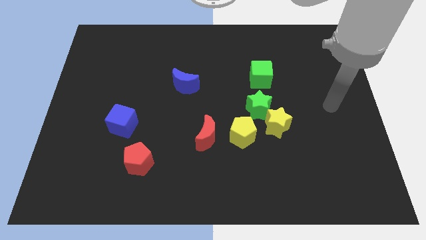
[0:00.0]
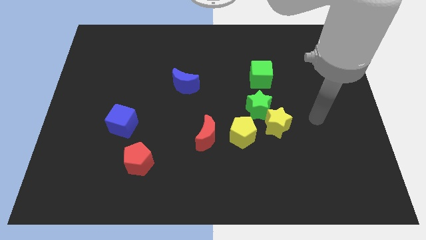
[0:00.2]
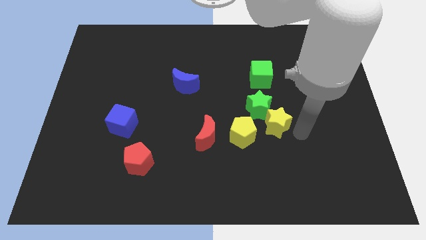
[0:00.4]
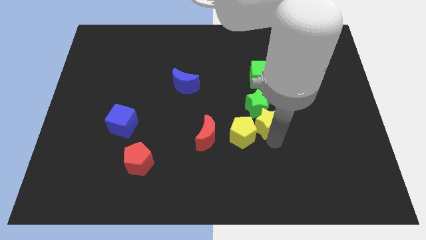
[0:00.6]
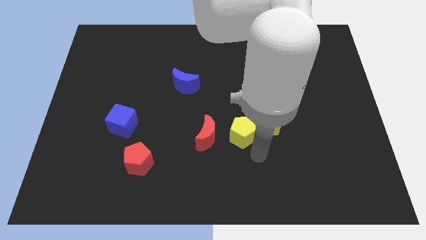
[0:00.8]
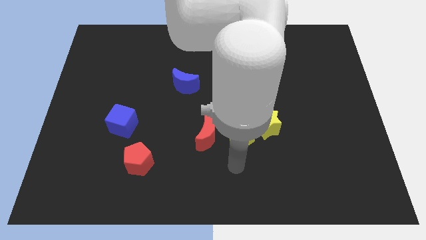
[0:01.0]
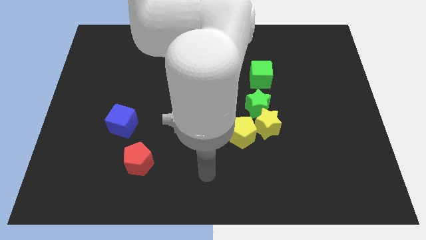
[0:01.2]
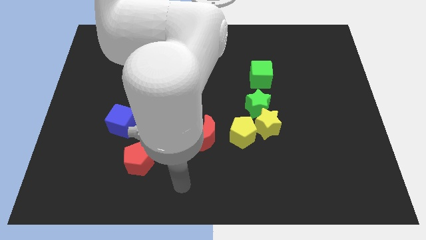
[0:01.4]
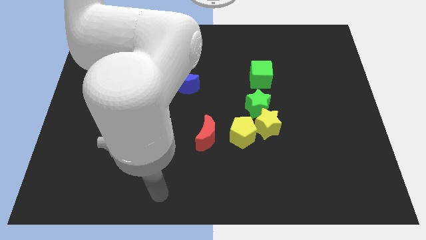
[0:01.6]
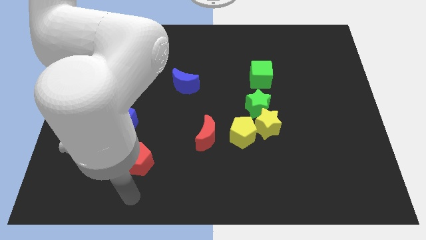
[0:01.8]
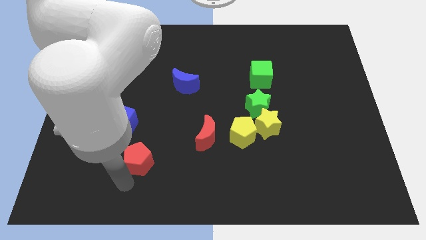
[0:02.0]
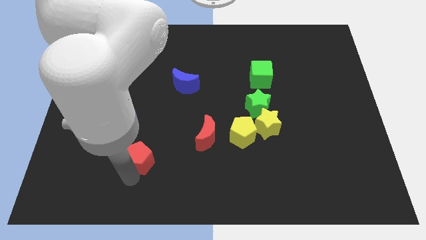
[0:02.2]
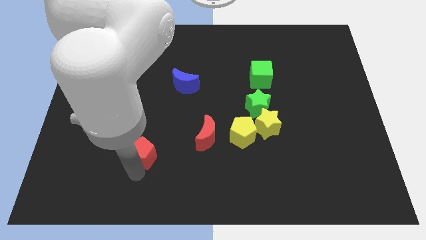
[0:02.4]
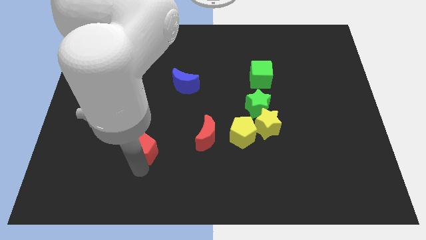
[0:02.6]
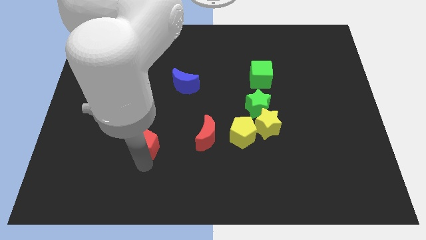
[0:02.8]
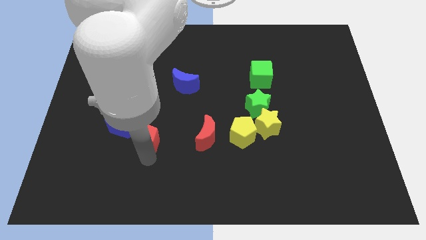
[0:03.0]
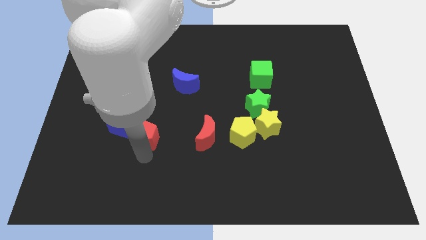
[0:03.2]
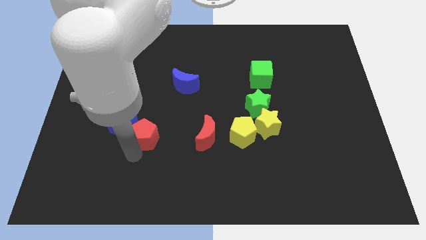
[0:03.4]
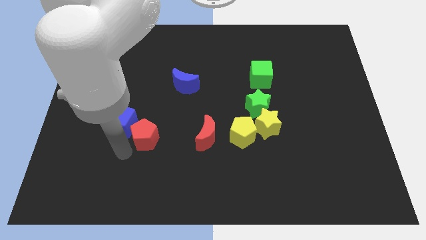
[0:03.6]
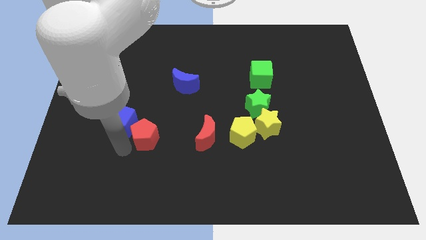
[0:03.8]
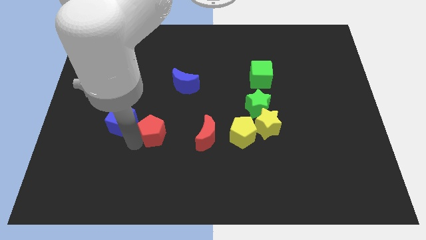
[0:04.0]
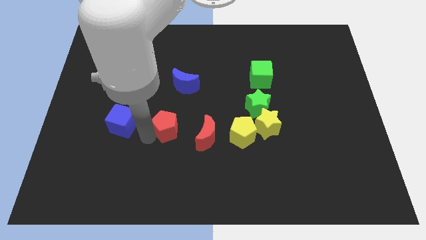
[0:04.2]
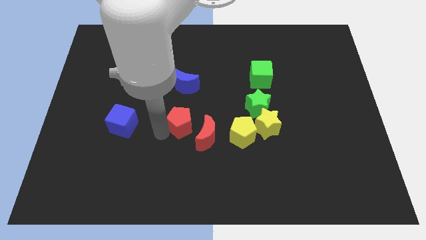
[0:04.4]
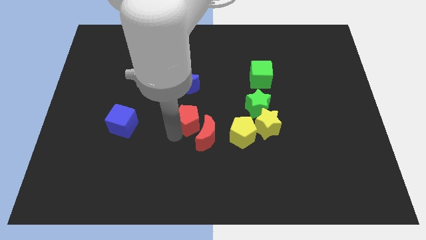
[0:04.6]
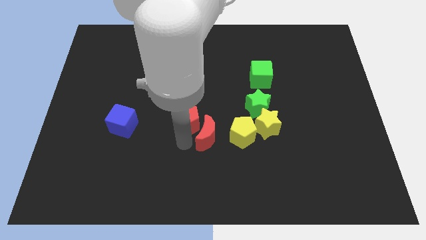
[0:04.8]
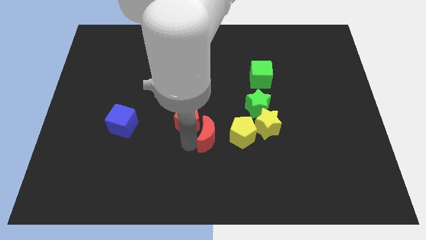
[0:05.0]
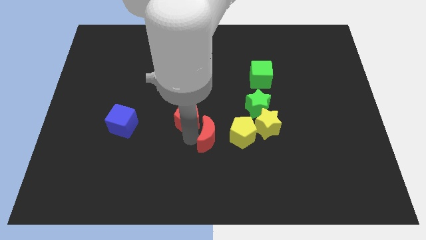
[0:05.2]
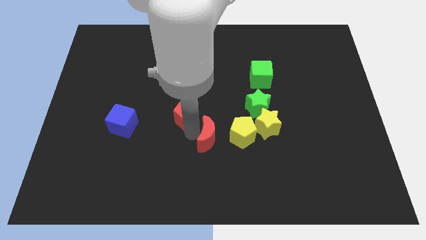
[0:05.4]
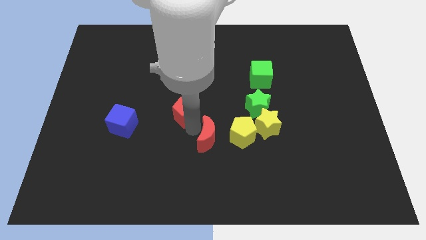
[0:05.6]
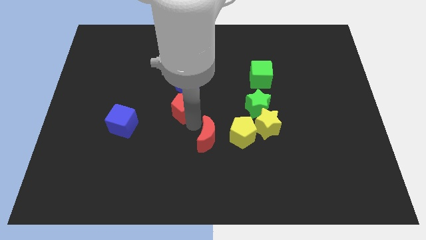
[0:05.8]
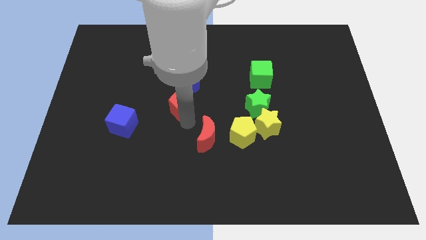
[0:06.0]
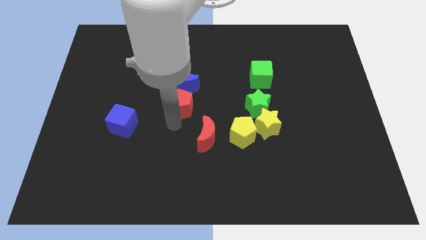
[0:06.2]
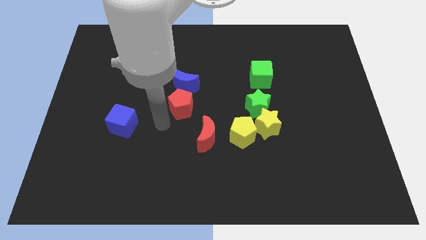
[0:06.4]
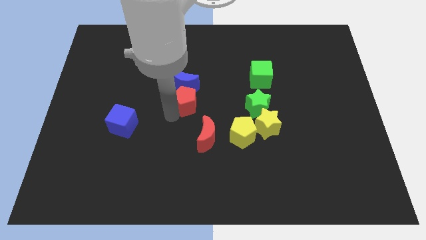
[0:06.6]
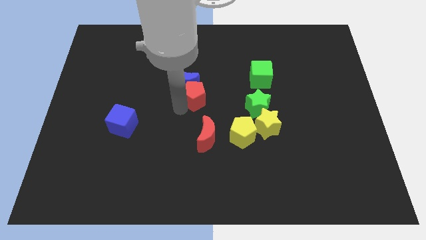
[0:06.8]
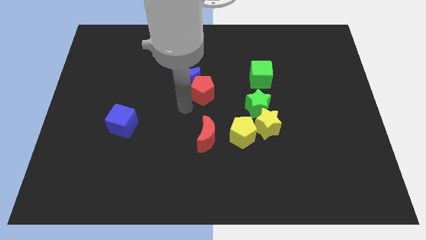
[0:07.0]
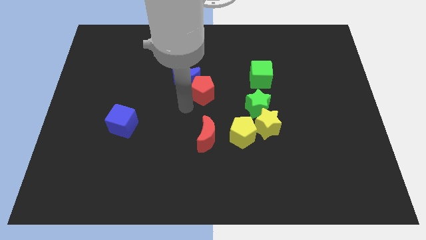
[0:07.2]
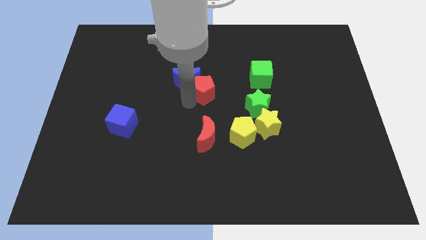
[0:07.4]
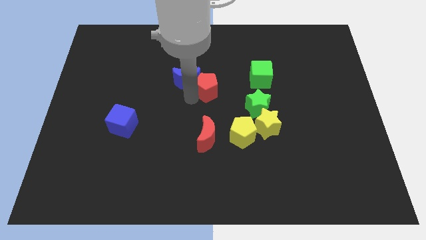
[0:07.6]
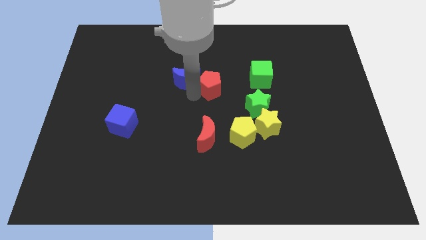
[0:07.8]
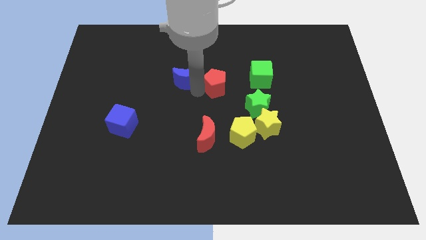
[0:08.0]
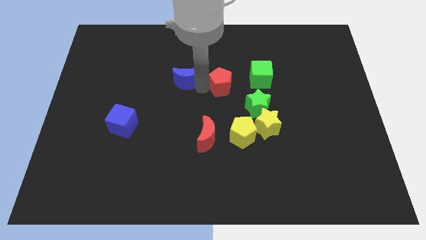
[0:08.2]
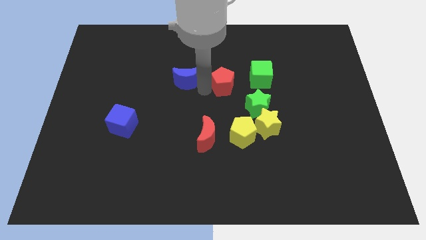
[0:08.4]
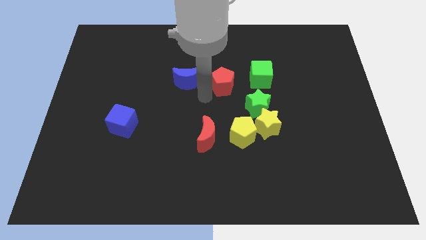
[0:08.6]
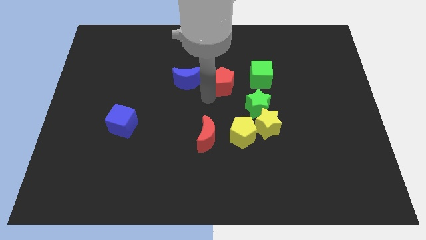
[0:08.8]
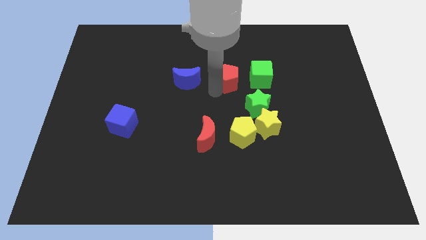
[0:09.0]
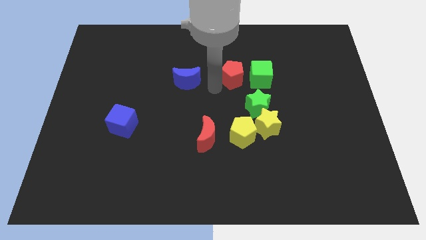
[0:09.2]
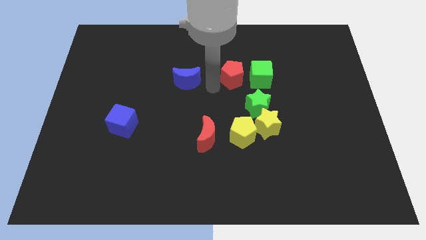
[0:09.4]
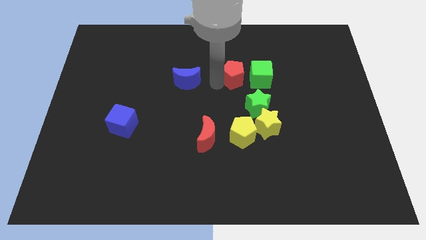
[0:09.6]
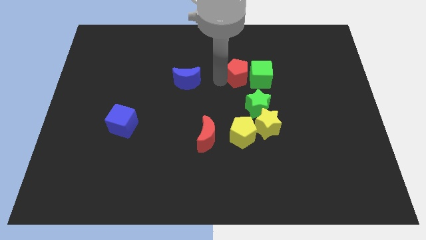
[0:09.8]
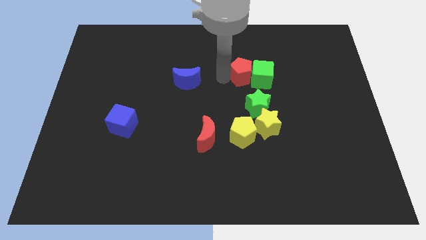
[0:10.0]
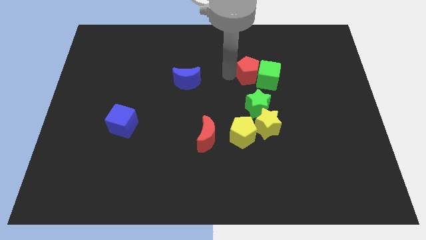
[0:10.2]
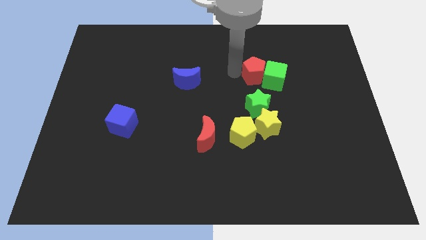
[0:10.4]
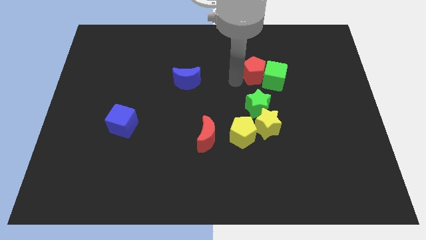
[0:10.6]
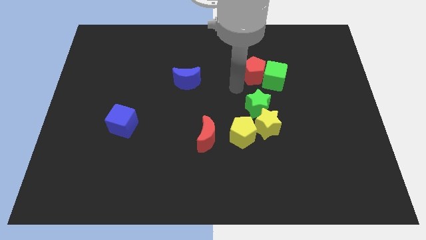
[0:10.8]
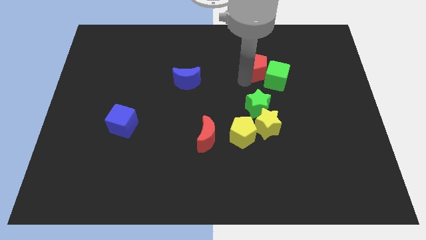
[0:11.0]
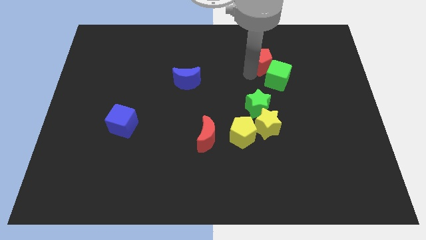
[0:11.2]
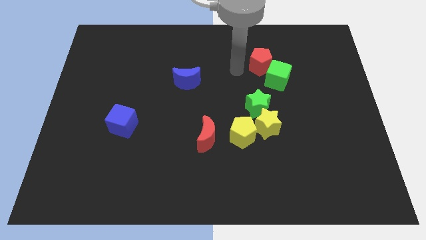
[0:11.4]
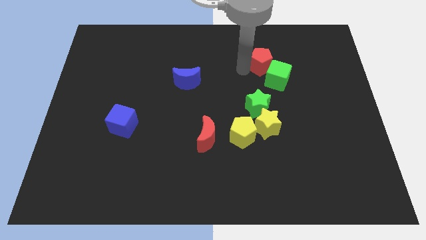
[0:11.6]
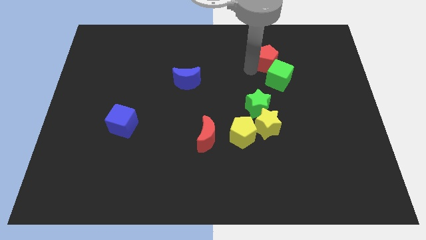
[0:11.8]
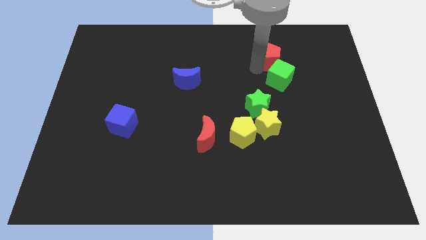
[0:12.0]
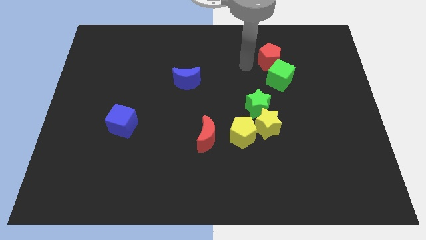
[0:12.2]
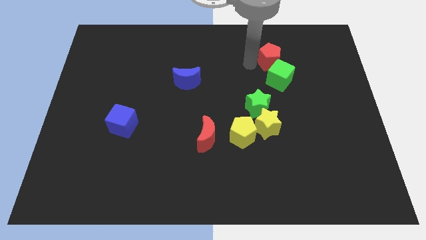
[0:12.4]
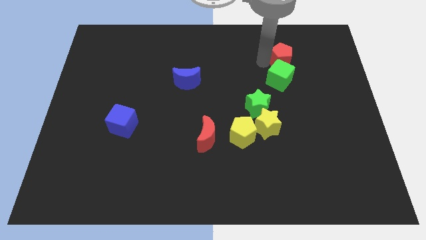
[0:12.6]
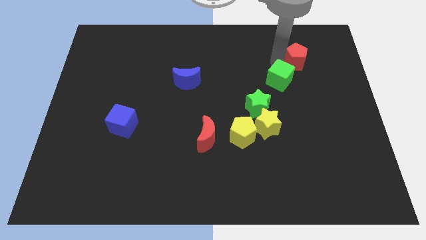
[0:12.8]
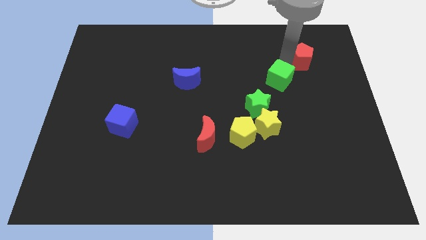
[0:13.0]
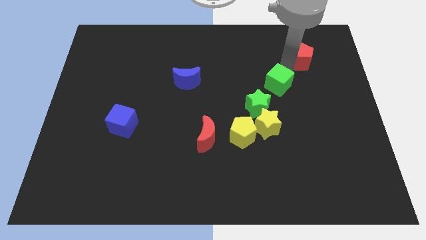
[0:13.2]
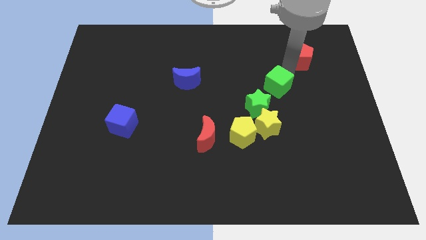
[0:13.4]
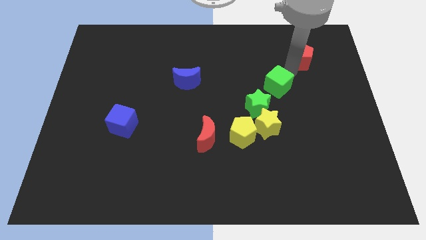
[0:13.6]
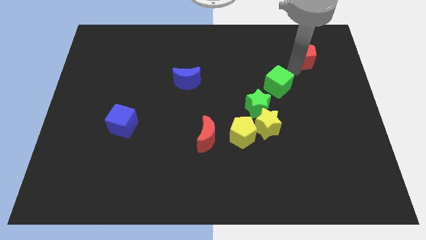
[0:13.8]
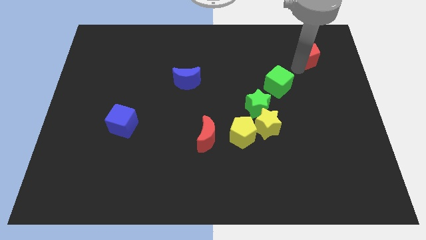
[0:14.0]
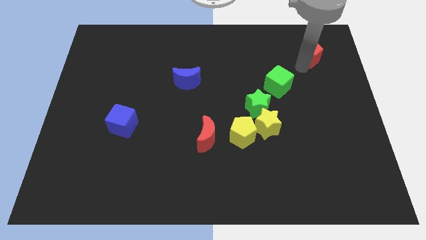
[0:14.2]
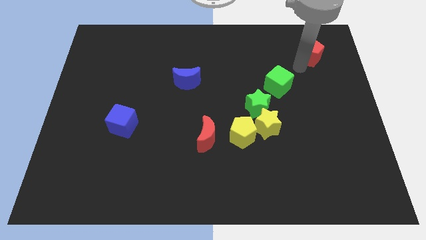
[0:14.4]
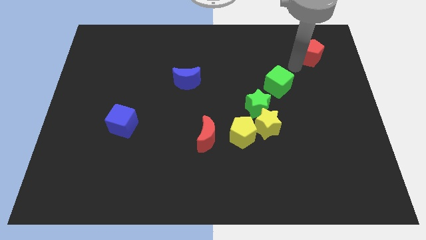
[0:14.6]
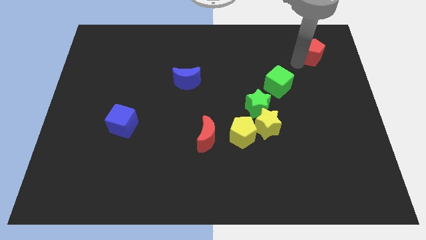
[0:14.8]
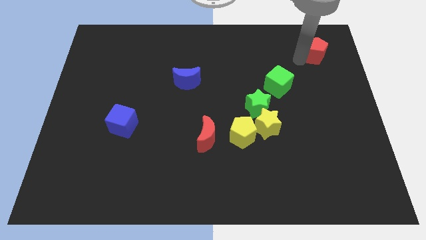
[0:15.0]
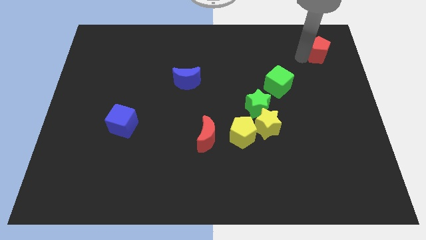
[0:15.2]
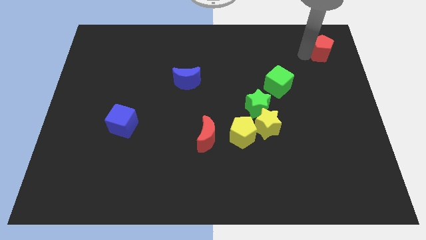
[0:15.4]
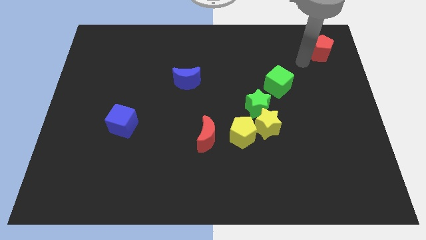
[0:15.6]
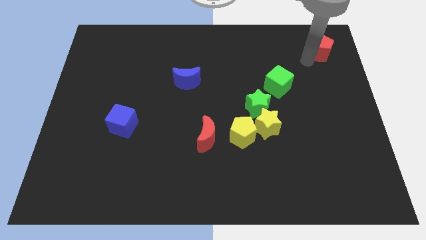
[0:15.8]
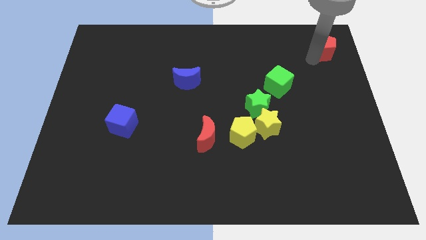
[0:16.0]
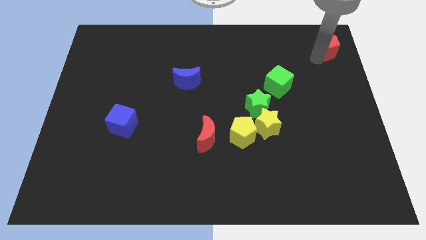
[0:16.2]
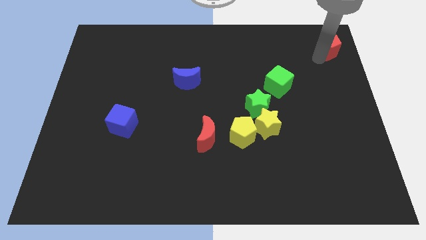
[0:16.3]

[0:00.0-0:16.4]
move the red pentagon to the upper right corner
